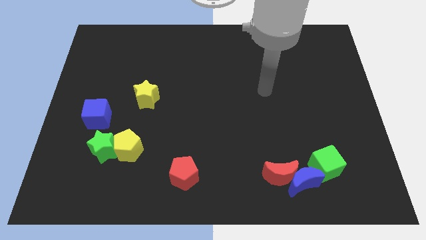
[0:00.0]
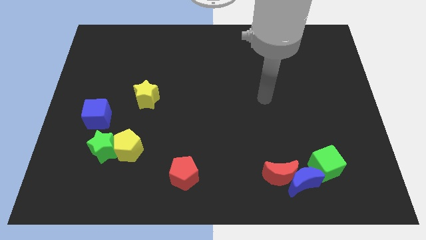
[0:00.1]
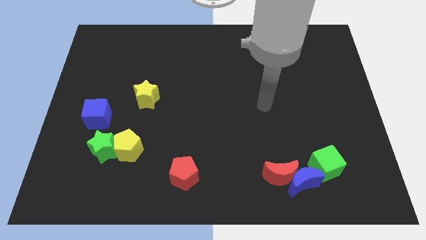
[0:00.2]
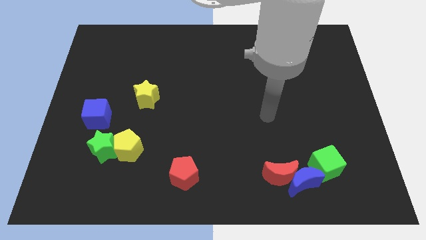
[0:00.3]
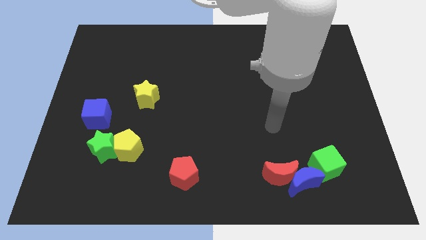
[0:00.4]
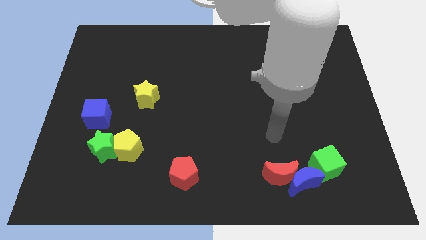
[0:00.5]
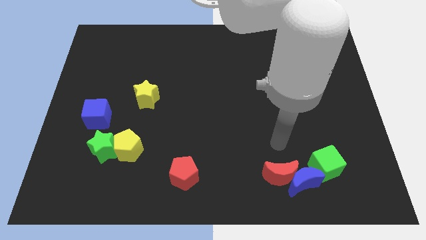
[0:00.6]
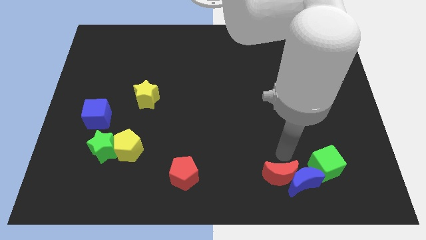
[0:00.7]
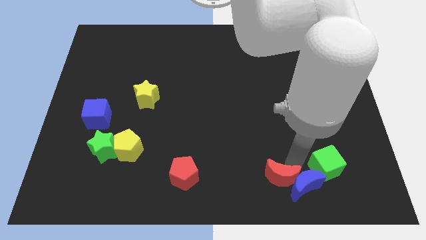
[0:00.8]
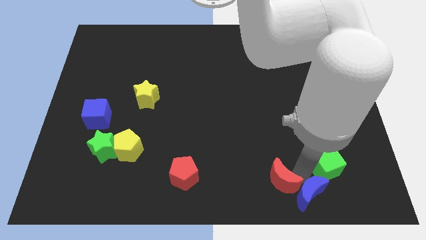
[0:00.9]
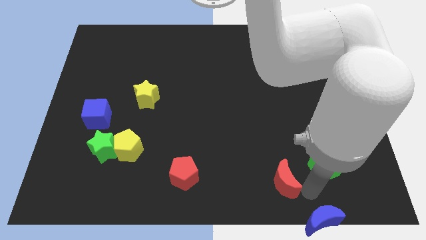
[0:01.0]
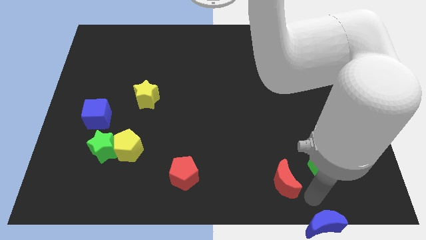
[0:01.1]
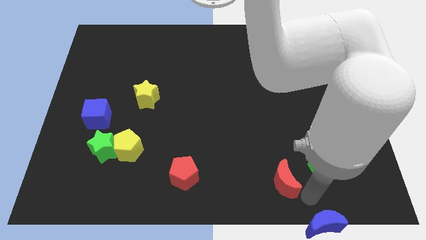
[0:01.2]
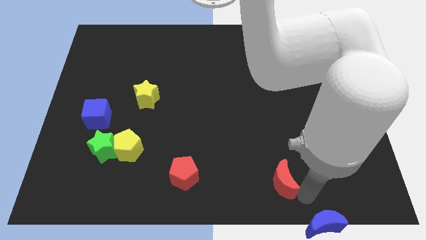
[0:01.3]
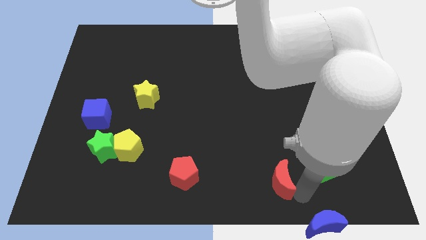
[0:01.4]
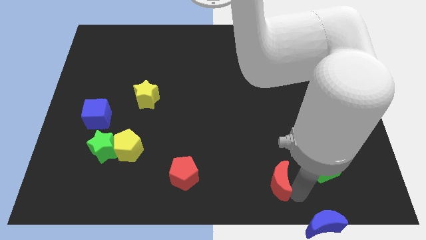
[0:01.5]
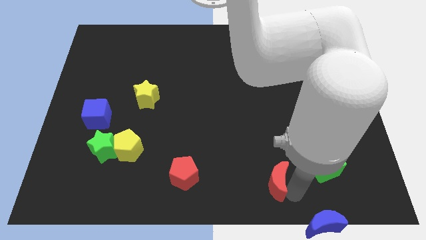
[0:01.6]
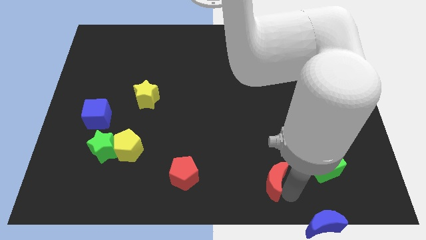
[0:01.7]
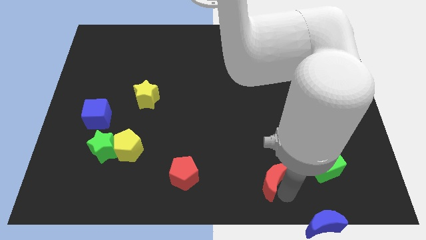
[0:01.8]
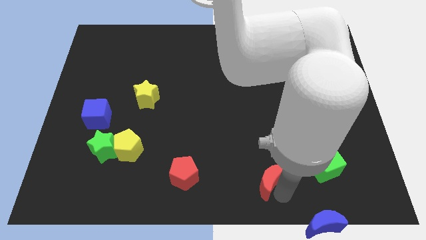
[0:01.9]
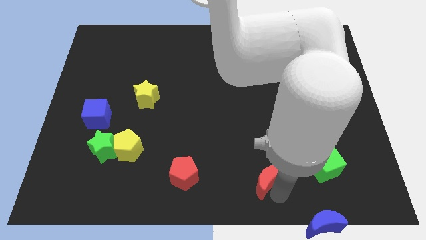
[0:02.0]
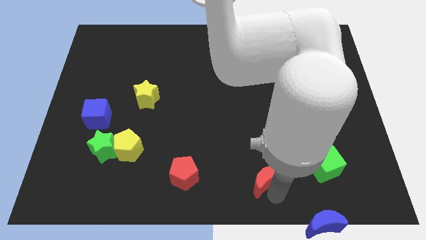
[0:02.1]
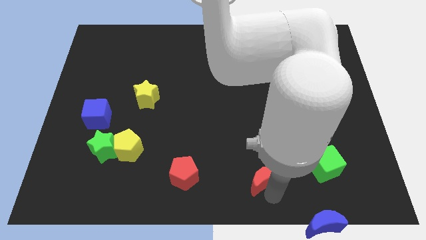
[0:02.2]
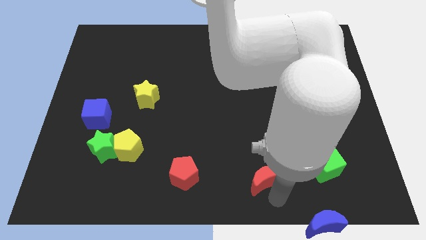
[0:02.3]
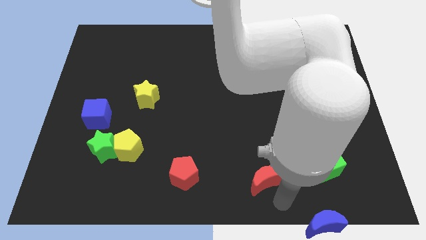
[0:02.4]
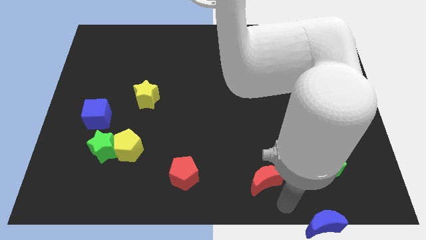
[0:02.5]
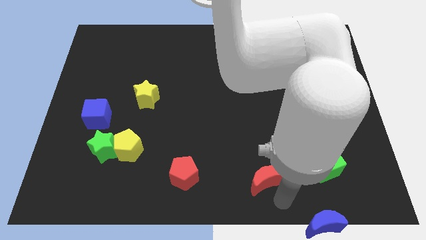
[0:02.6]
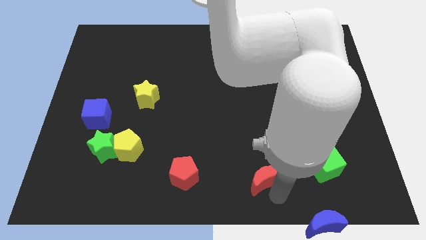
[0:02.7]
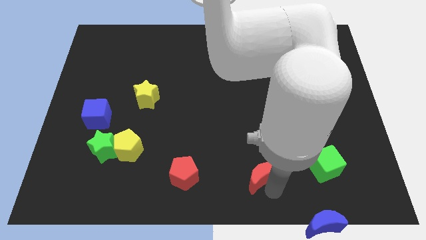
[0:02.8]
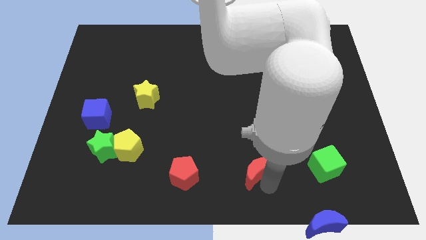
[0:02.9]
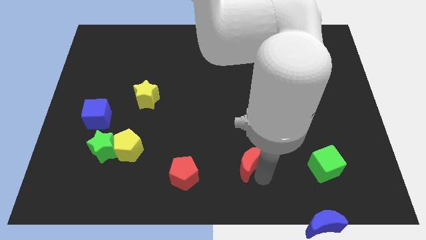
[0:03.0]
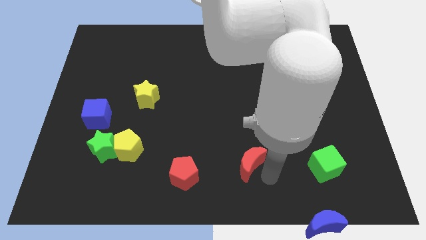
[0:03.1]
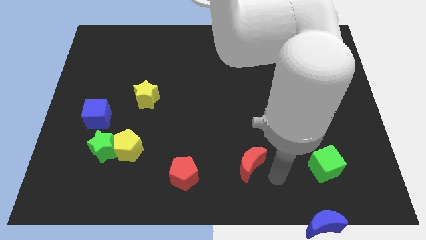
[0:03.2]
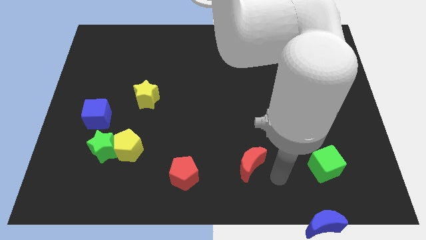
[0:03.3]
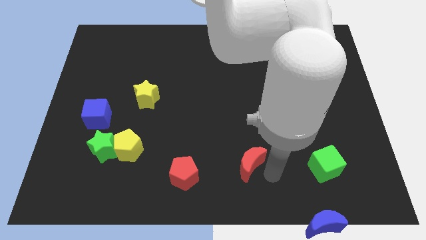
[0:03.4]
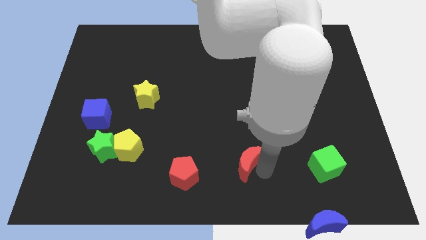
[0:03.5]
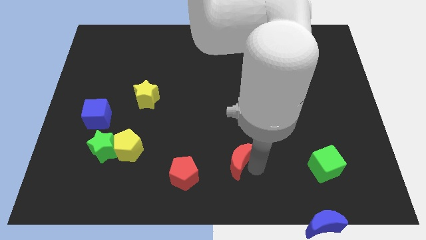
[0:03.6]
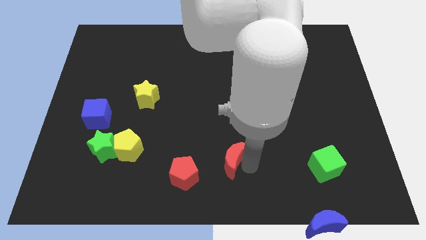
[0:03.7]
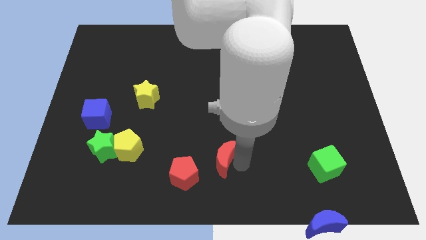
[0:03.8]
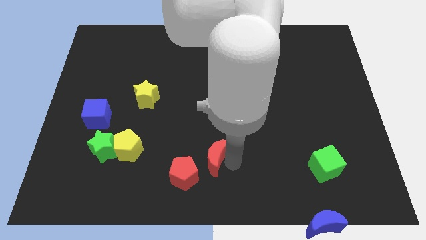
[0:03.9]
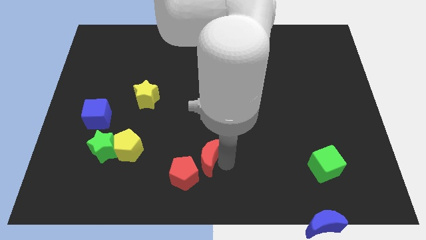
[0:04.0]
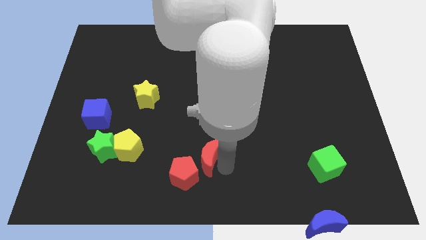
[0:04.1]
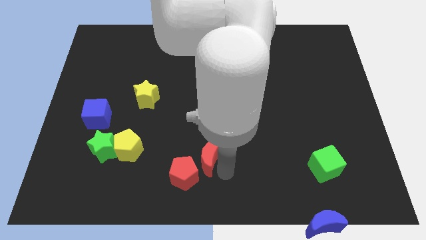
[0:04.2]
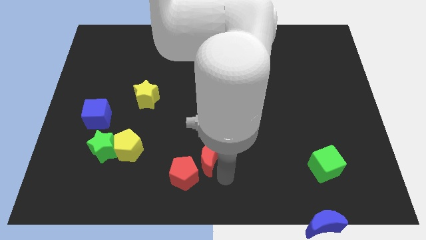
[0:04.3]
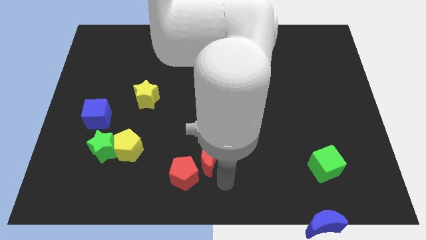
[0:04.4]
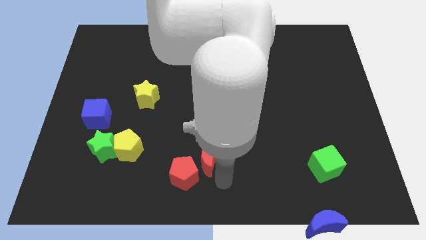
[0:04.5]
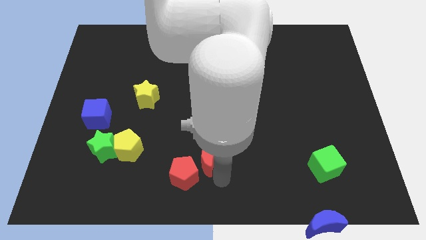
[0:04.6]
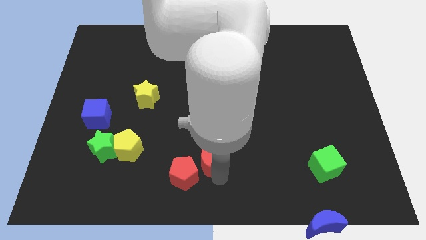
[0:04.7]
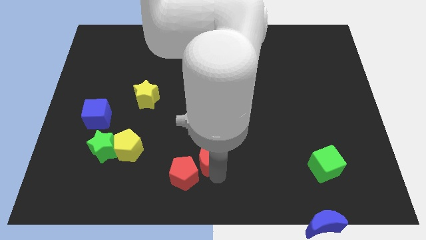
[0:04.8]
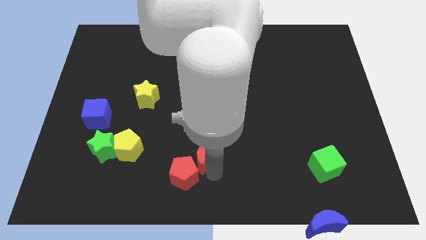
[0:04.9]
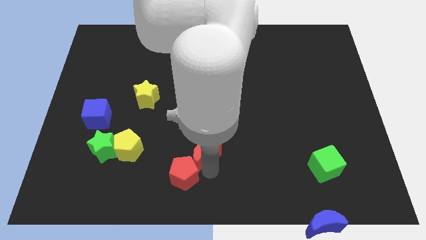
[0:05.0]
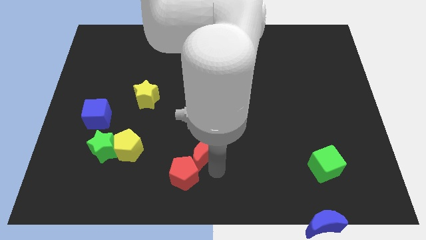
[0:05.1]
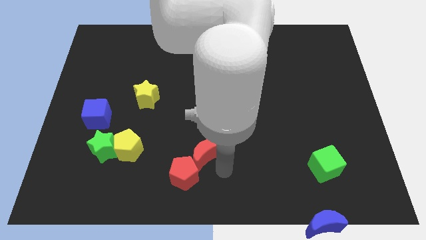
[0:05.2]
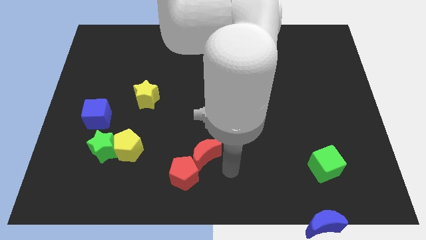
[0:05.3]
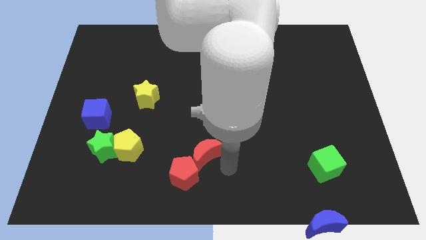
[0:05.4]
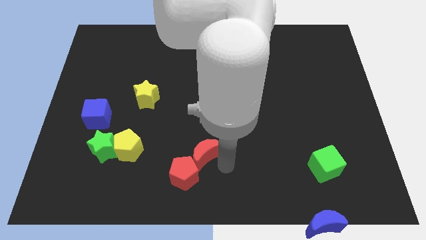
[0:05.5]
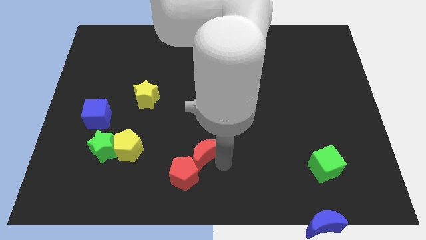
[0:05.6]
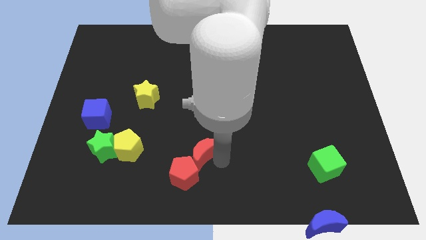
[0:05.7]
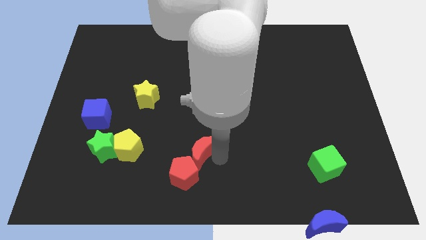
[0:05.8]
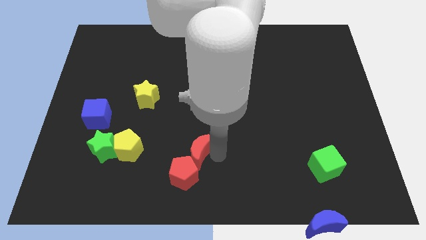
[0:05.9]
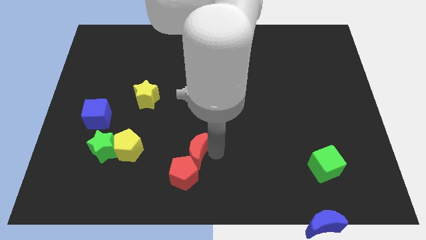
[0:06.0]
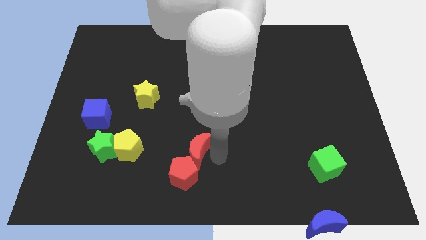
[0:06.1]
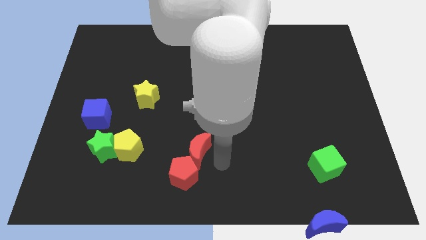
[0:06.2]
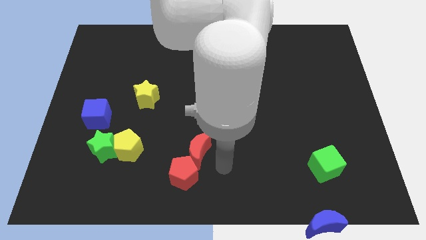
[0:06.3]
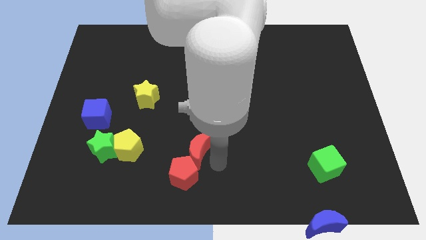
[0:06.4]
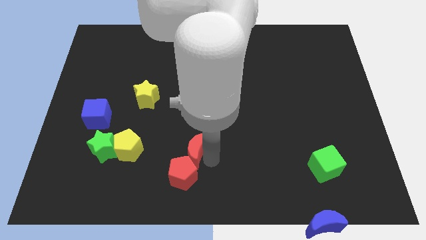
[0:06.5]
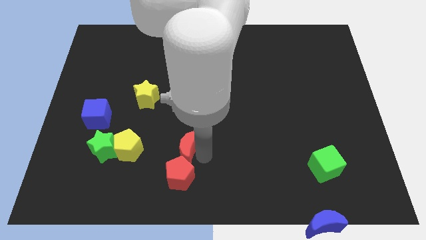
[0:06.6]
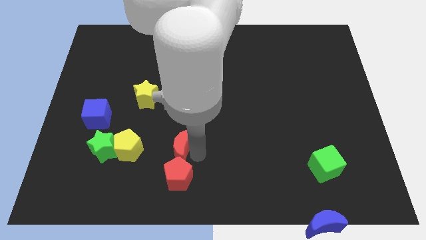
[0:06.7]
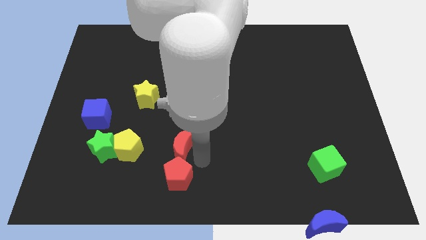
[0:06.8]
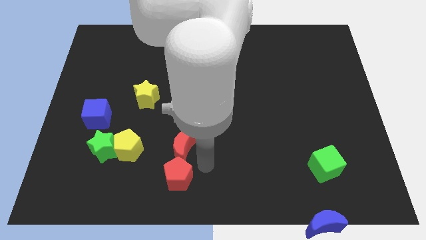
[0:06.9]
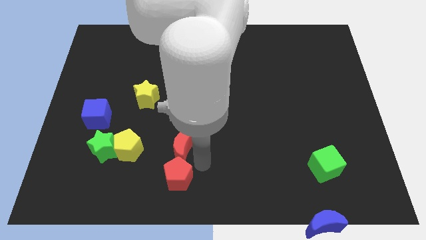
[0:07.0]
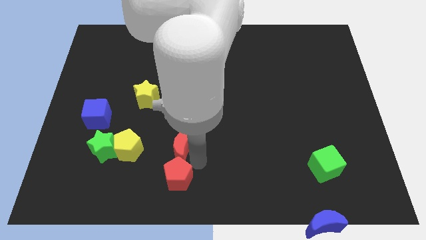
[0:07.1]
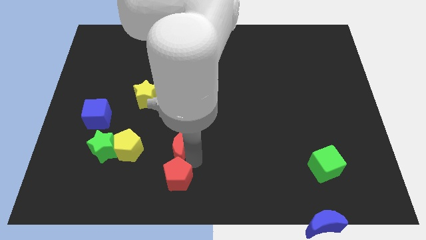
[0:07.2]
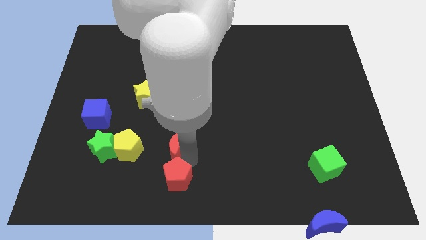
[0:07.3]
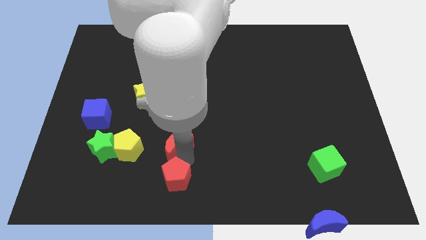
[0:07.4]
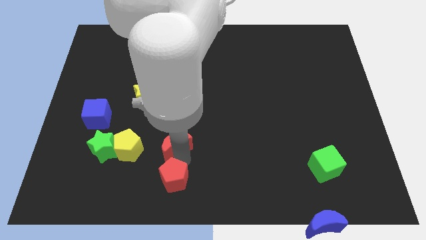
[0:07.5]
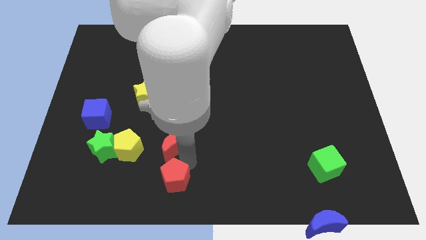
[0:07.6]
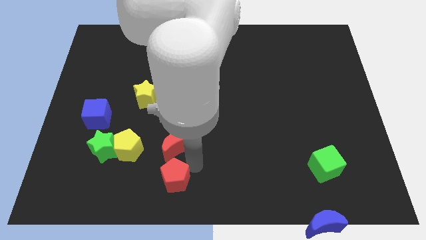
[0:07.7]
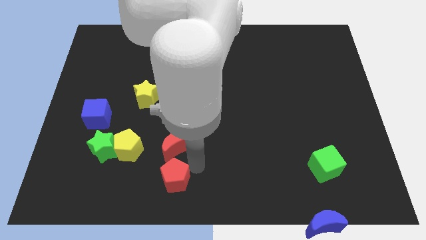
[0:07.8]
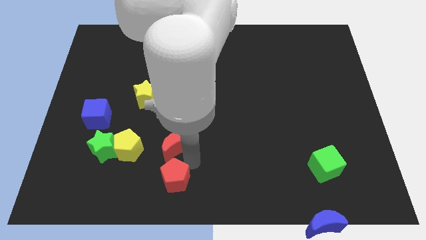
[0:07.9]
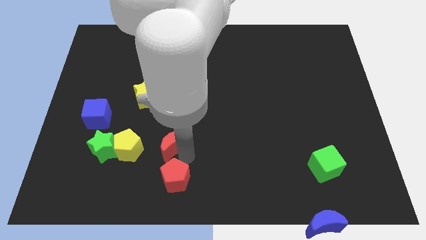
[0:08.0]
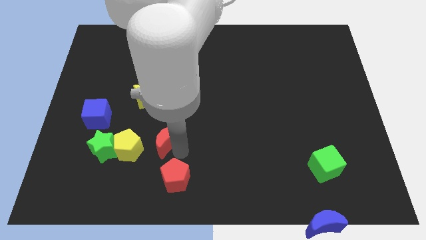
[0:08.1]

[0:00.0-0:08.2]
move the red moon diagonally up and to the right of the yellow pentagon
